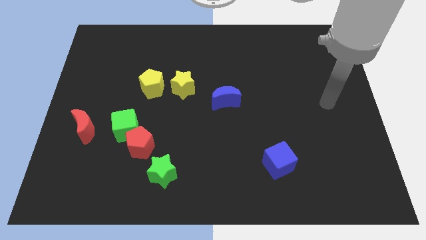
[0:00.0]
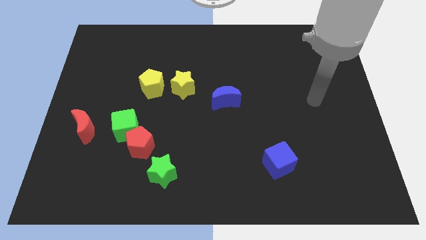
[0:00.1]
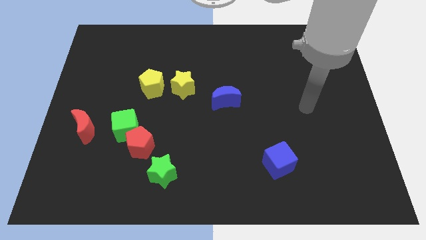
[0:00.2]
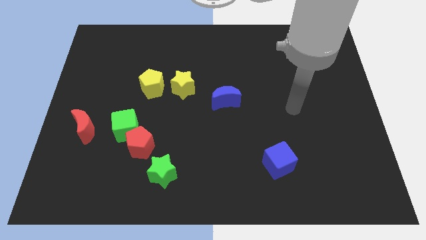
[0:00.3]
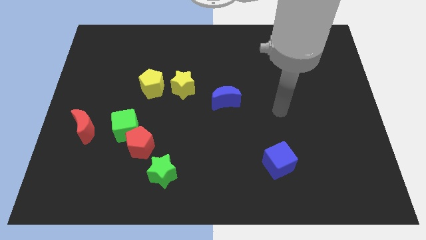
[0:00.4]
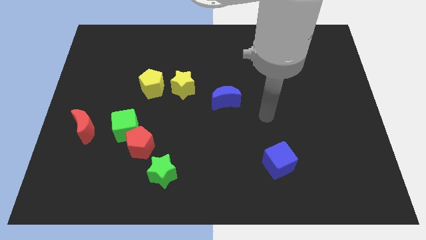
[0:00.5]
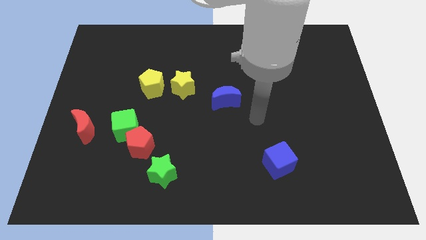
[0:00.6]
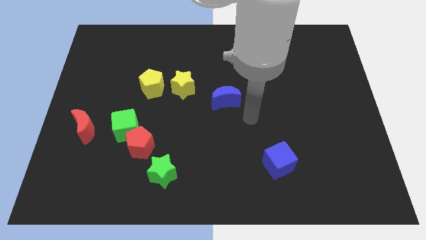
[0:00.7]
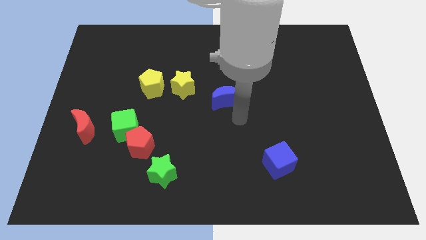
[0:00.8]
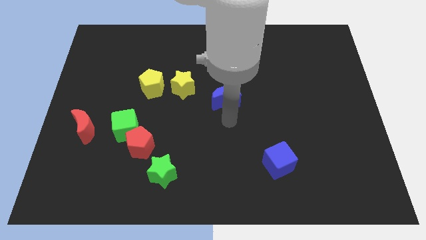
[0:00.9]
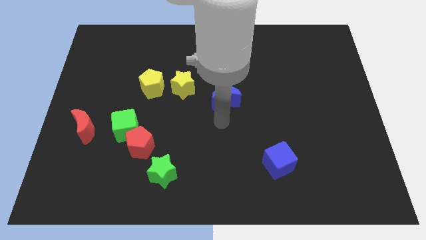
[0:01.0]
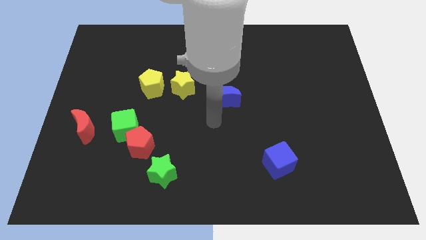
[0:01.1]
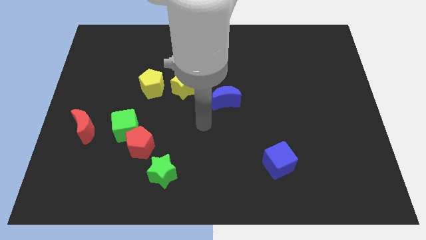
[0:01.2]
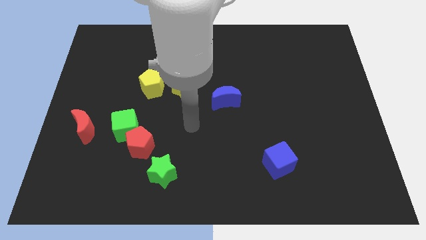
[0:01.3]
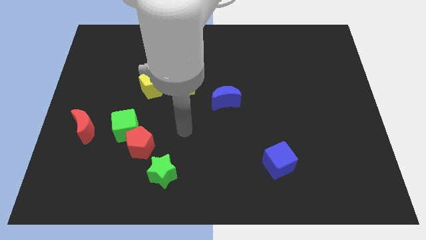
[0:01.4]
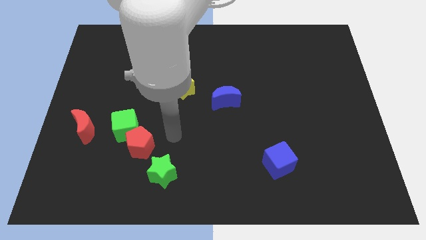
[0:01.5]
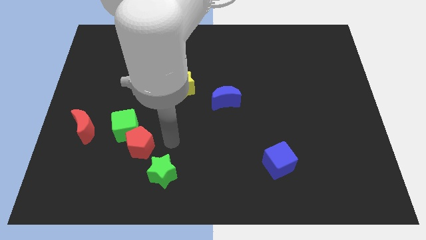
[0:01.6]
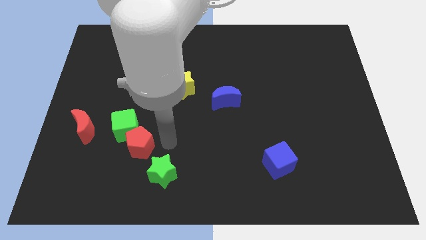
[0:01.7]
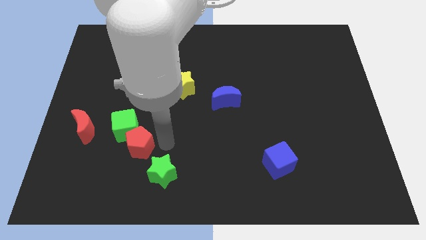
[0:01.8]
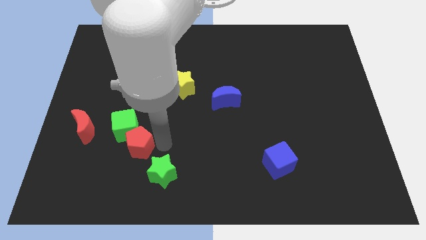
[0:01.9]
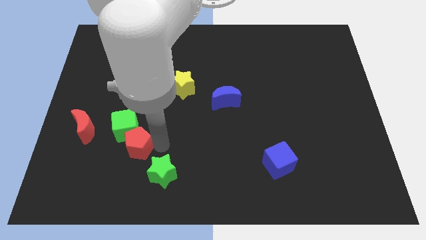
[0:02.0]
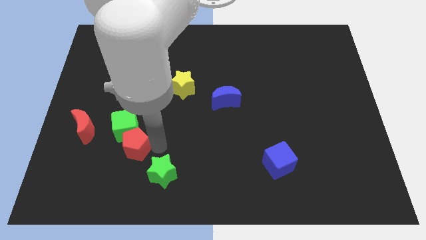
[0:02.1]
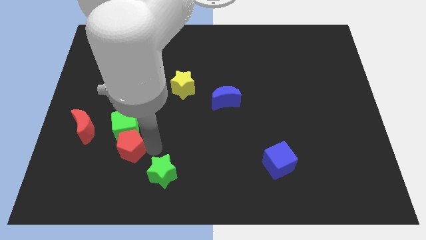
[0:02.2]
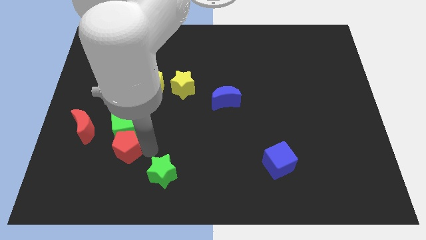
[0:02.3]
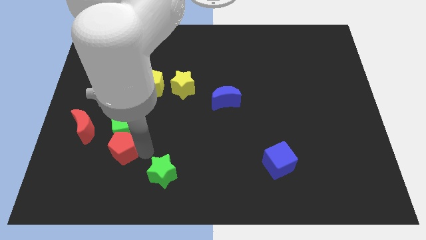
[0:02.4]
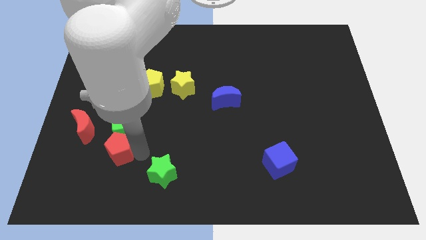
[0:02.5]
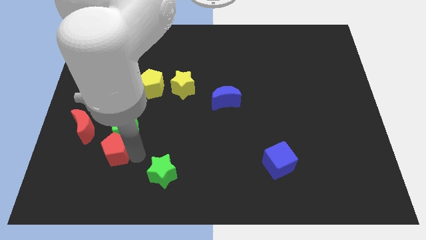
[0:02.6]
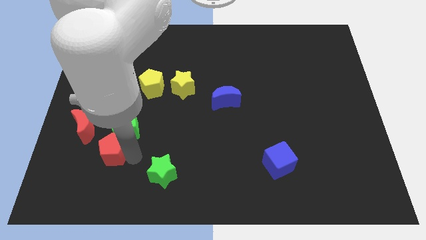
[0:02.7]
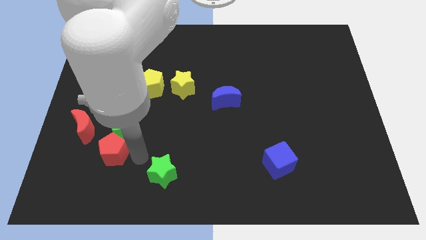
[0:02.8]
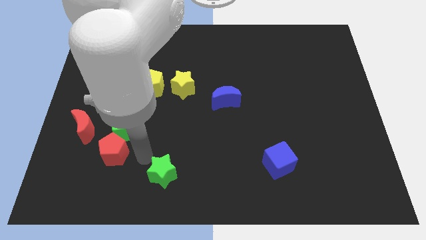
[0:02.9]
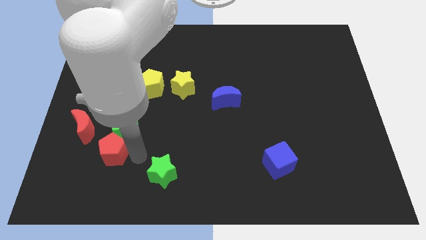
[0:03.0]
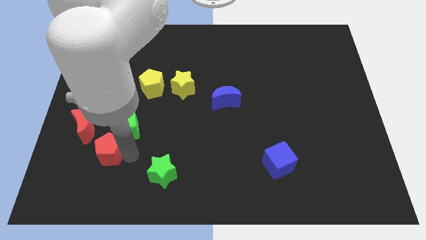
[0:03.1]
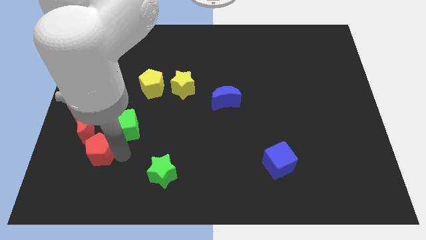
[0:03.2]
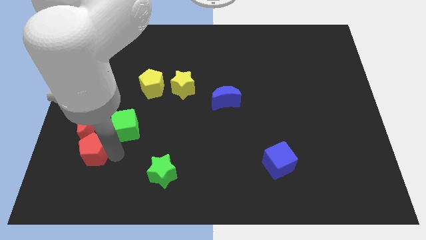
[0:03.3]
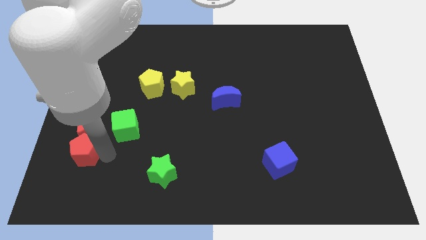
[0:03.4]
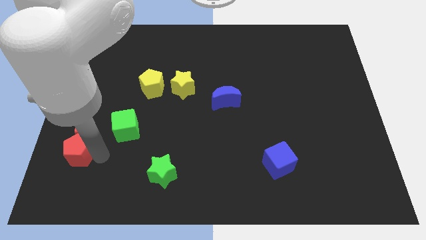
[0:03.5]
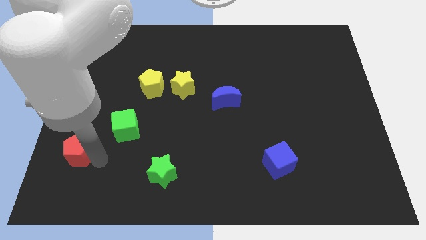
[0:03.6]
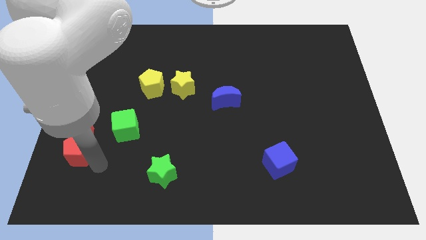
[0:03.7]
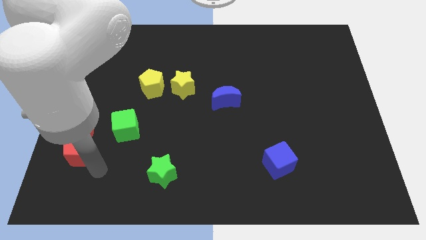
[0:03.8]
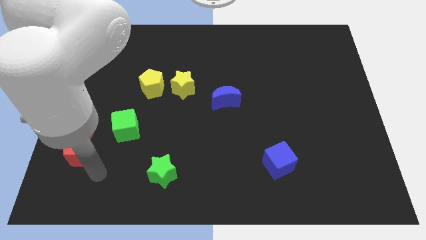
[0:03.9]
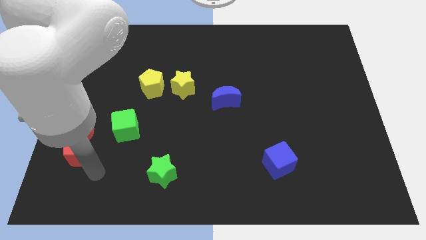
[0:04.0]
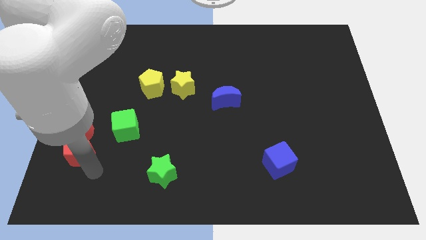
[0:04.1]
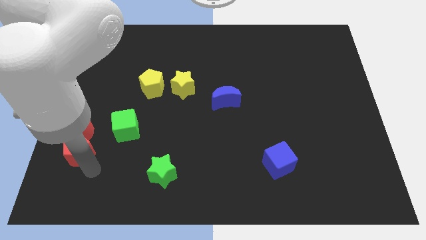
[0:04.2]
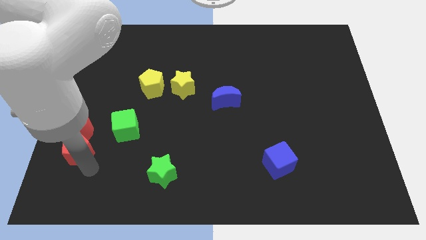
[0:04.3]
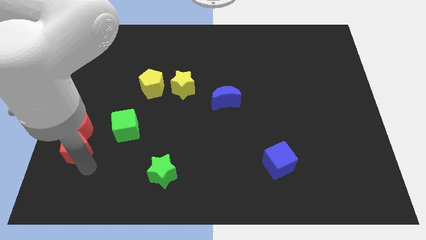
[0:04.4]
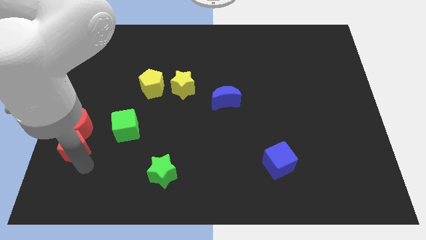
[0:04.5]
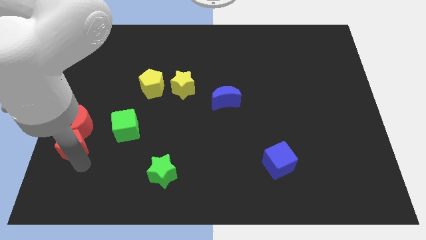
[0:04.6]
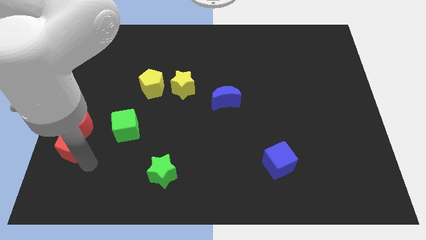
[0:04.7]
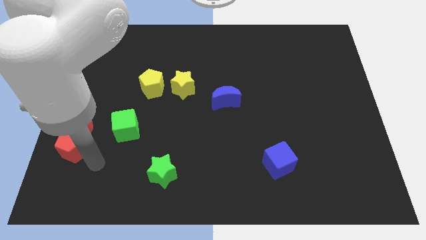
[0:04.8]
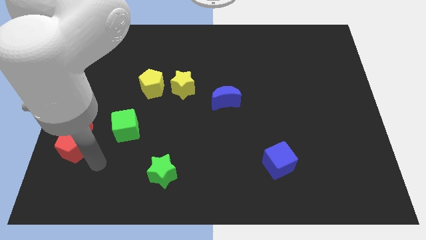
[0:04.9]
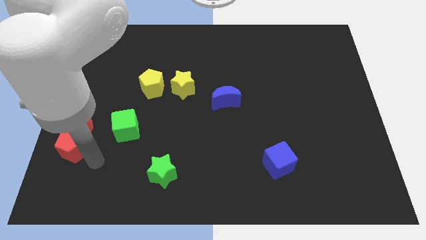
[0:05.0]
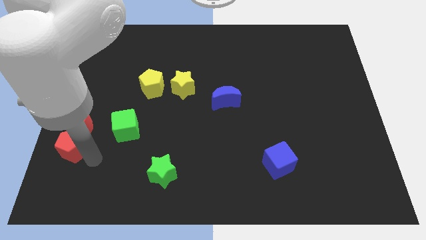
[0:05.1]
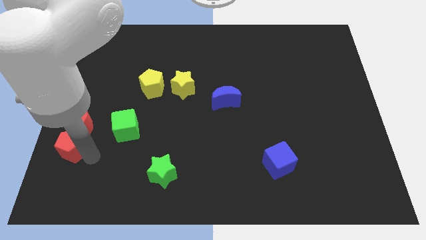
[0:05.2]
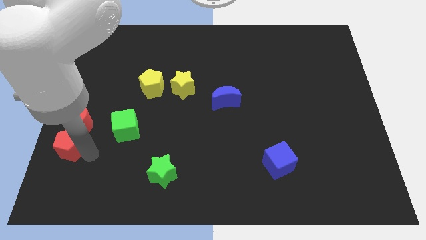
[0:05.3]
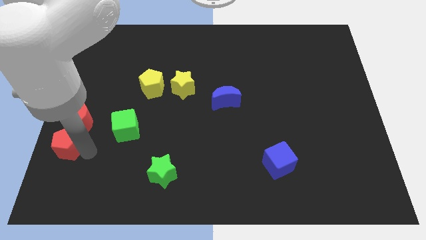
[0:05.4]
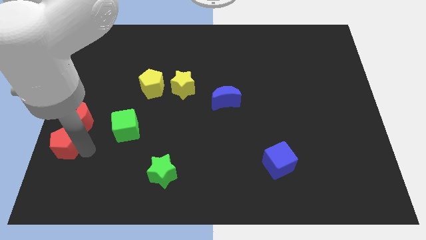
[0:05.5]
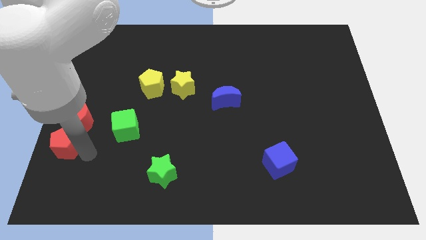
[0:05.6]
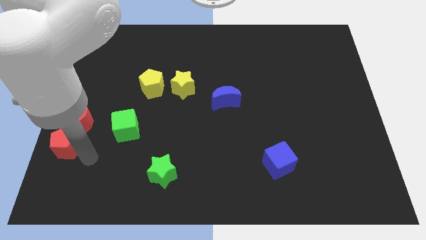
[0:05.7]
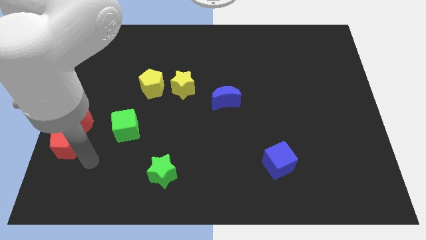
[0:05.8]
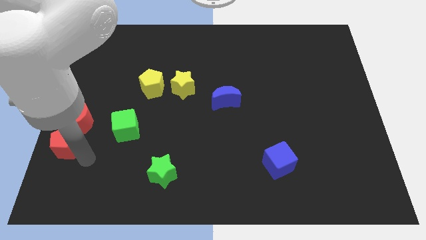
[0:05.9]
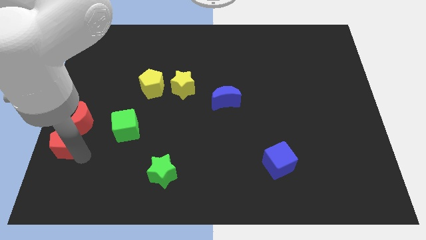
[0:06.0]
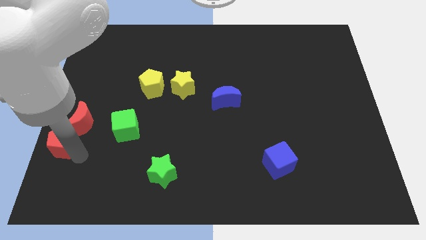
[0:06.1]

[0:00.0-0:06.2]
push the red pentagon to the left side of the board

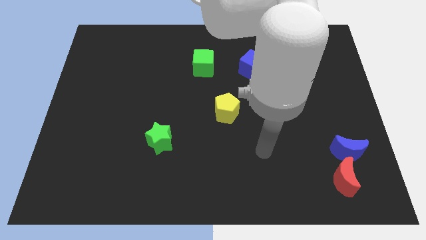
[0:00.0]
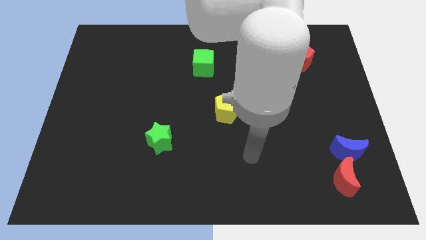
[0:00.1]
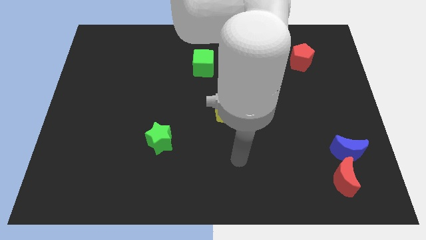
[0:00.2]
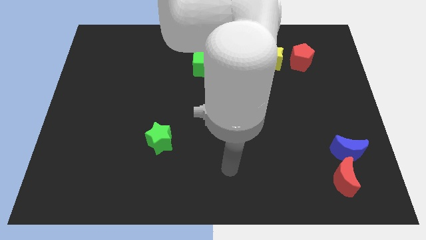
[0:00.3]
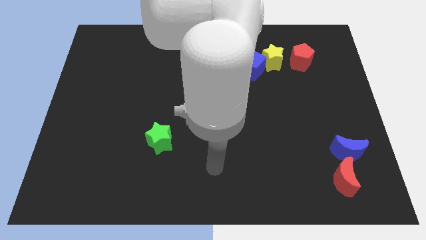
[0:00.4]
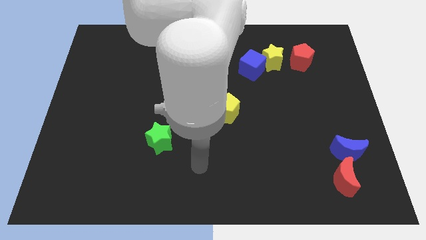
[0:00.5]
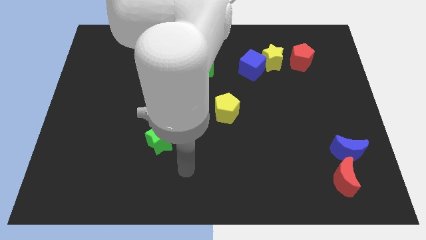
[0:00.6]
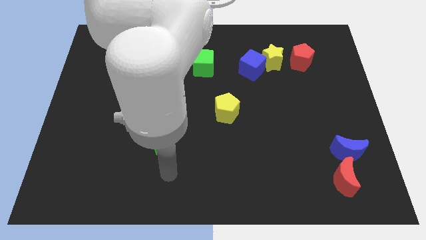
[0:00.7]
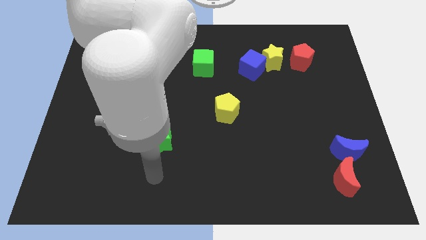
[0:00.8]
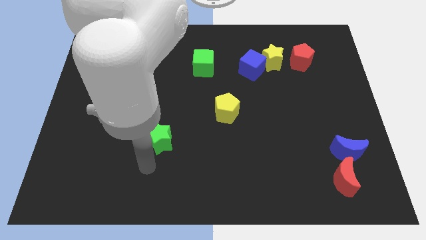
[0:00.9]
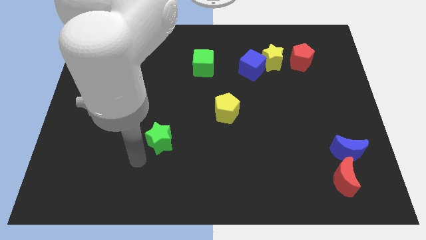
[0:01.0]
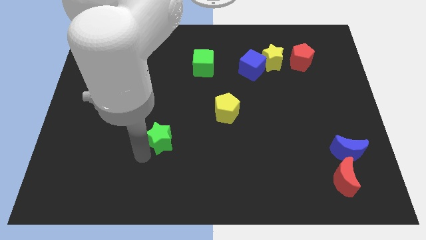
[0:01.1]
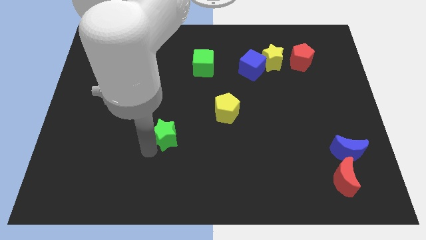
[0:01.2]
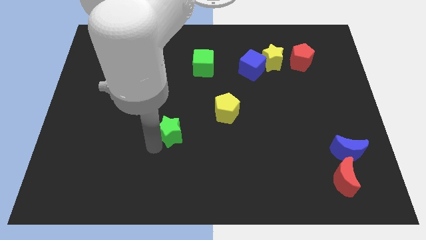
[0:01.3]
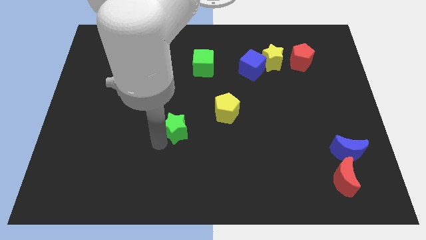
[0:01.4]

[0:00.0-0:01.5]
slide the green star to the center
